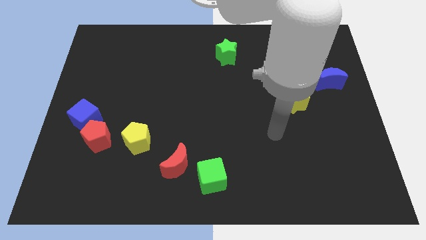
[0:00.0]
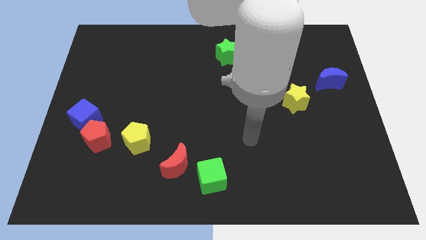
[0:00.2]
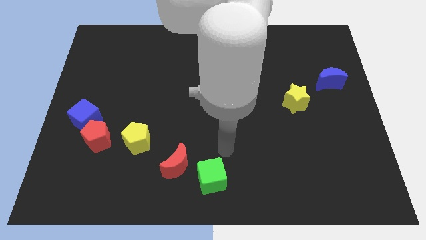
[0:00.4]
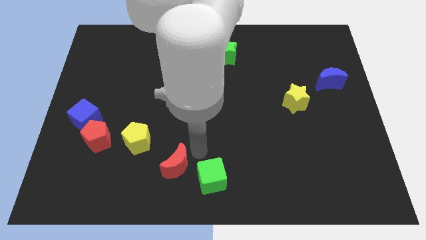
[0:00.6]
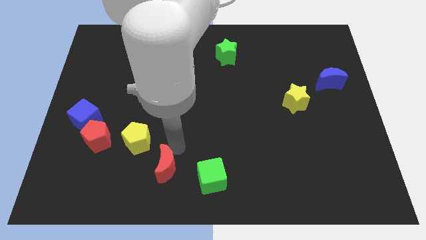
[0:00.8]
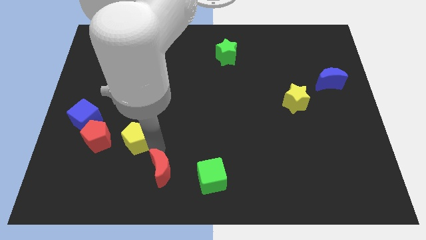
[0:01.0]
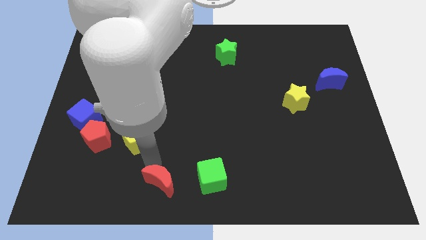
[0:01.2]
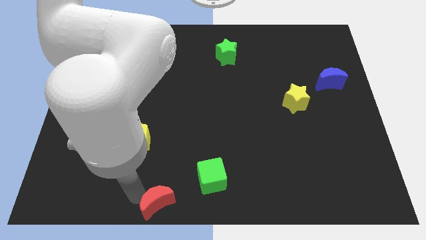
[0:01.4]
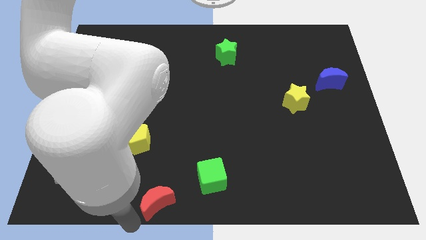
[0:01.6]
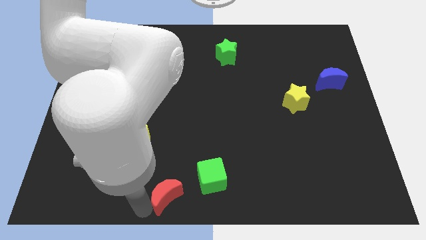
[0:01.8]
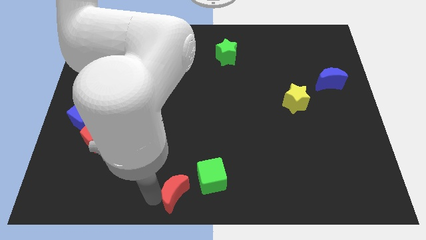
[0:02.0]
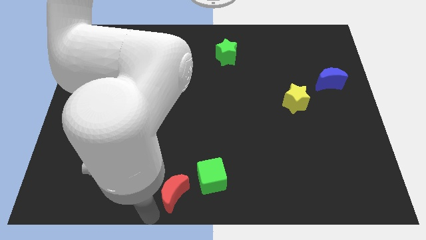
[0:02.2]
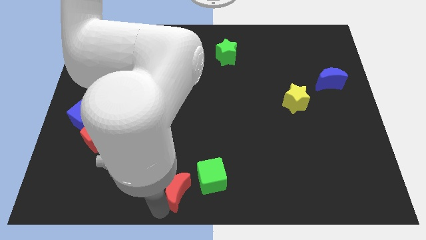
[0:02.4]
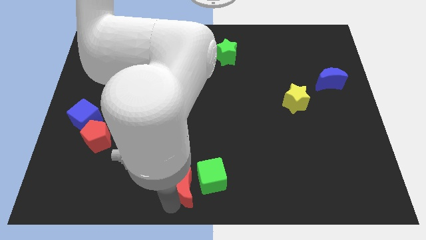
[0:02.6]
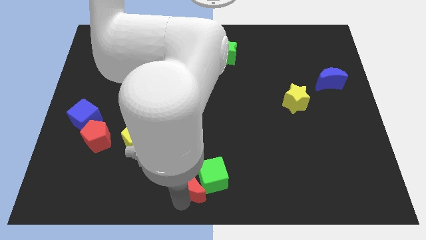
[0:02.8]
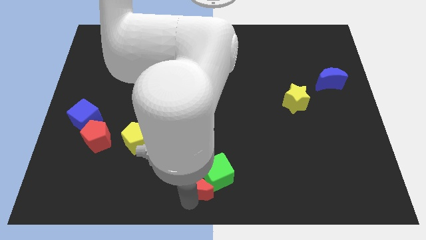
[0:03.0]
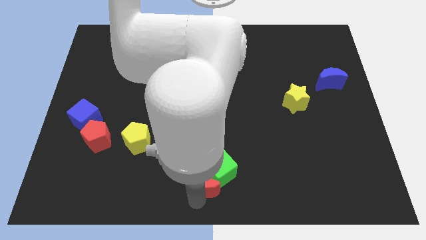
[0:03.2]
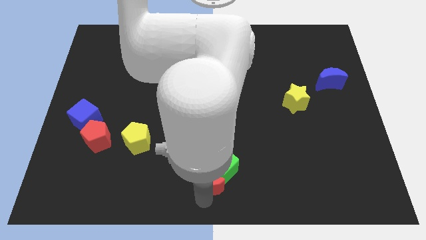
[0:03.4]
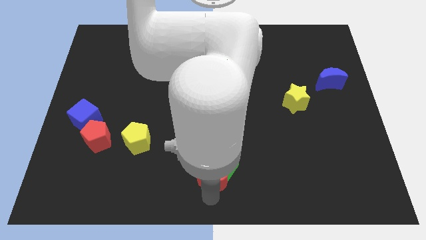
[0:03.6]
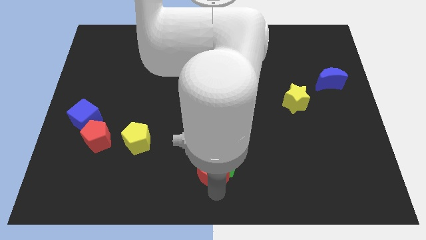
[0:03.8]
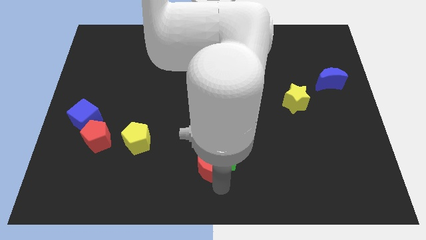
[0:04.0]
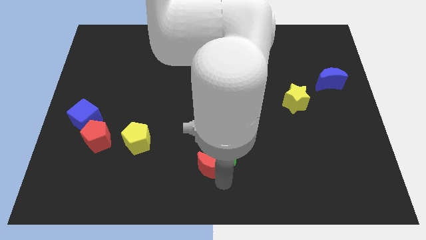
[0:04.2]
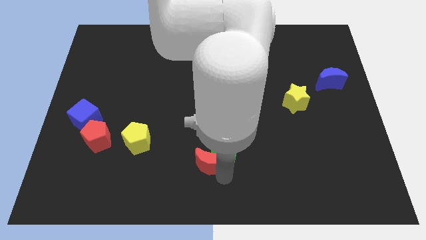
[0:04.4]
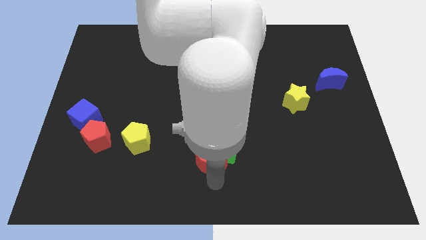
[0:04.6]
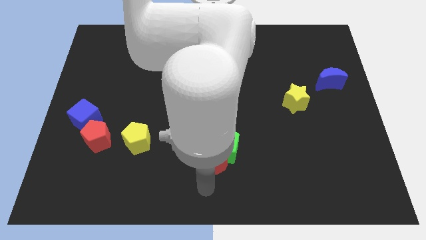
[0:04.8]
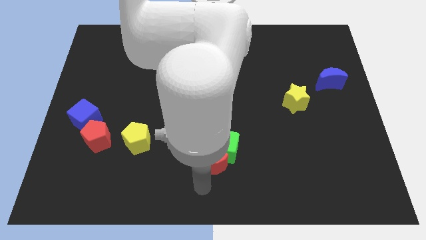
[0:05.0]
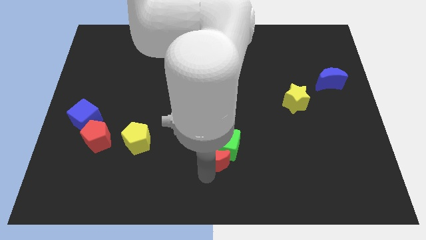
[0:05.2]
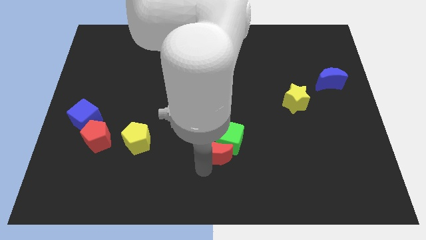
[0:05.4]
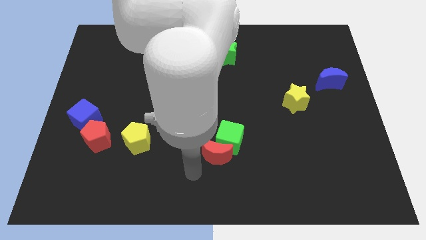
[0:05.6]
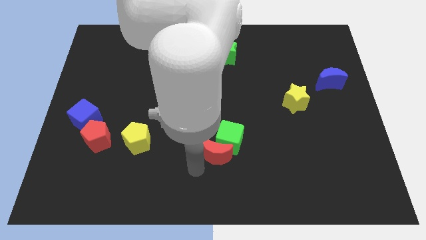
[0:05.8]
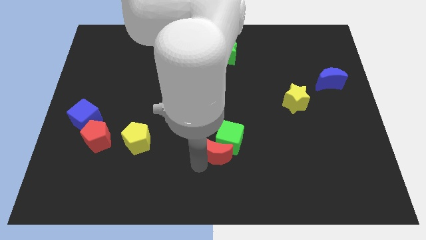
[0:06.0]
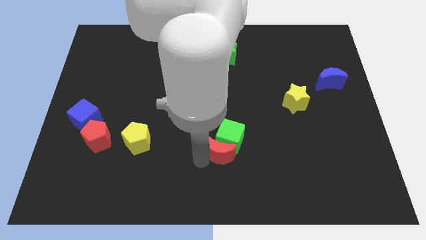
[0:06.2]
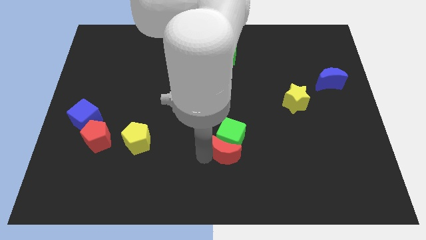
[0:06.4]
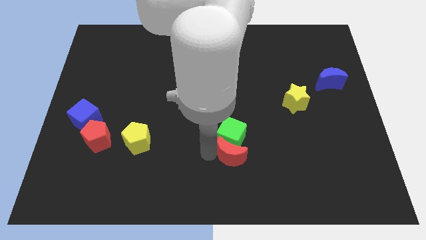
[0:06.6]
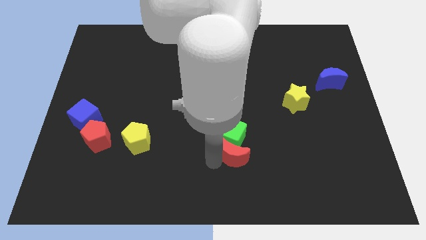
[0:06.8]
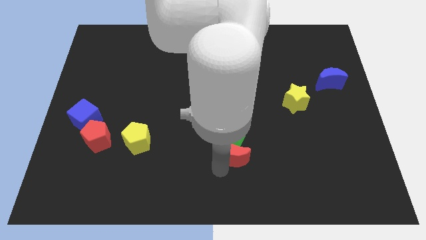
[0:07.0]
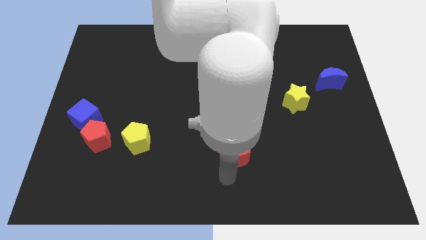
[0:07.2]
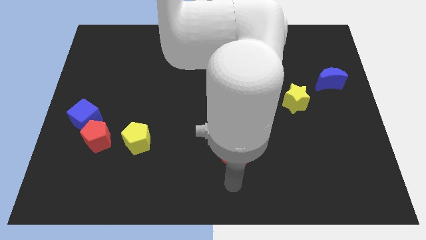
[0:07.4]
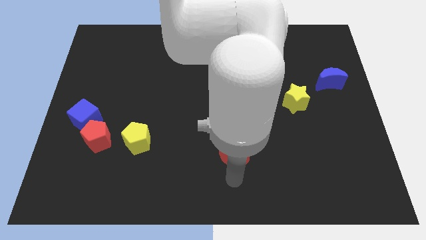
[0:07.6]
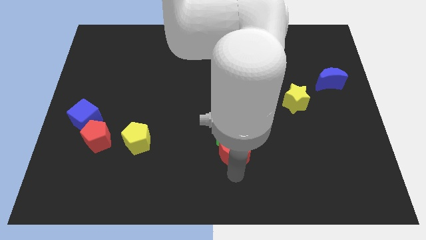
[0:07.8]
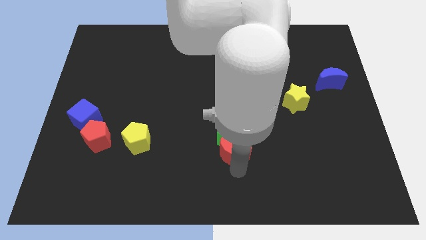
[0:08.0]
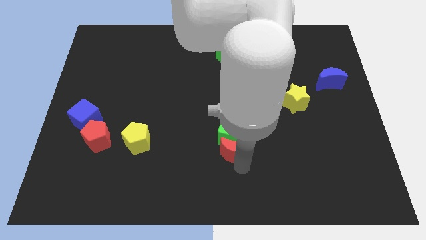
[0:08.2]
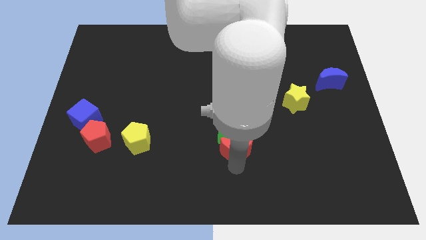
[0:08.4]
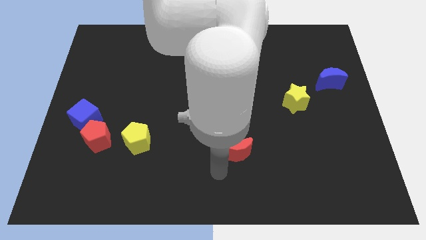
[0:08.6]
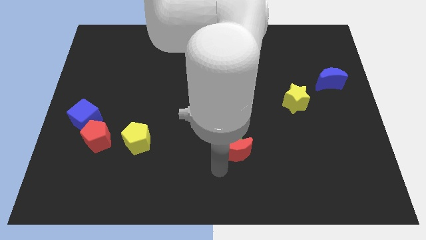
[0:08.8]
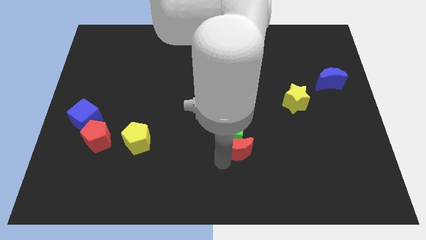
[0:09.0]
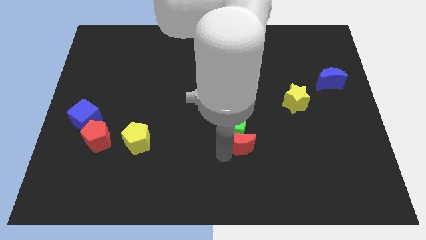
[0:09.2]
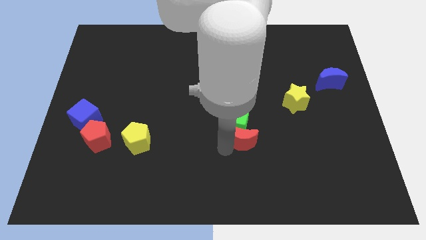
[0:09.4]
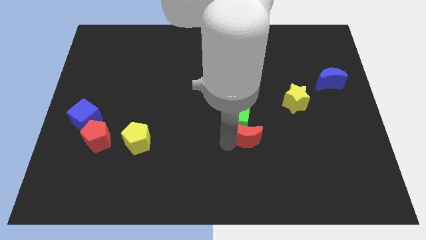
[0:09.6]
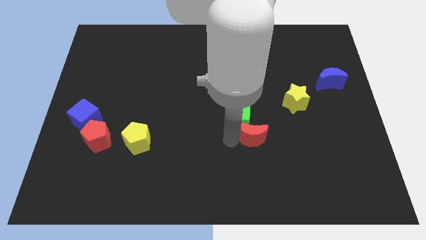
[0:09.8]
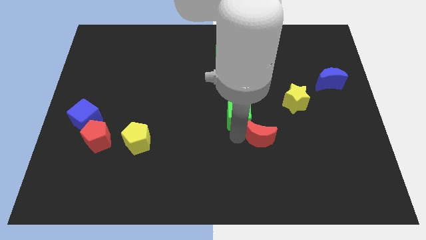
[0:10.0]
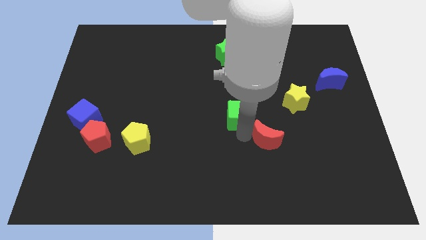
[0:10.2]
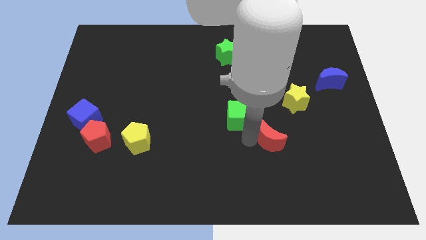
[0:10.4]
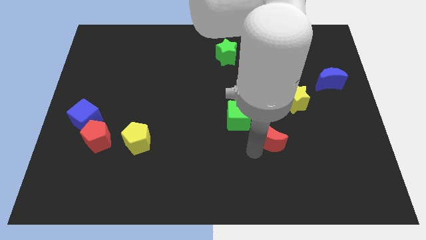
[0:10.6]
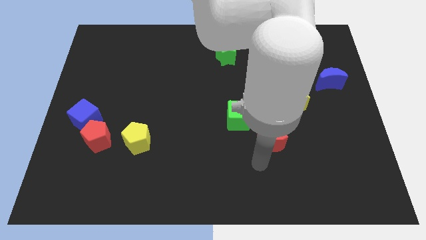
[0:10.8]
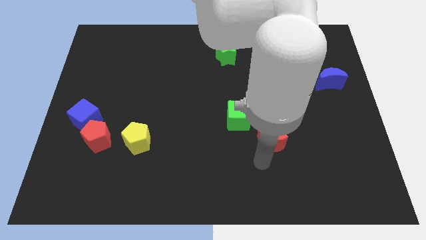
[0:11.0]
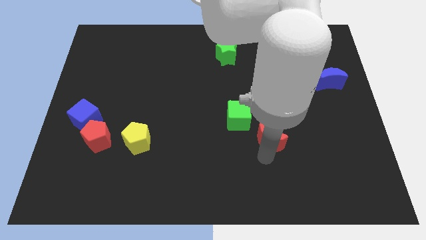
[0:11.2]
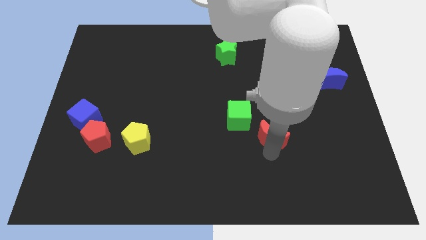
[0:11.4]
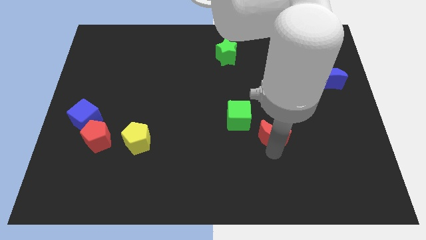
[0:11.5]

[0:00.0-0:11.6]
put the red moon to the bottom left of the yellow star

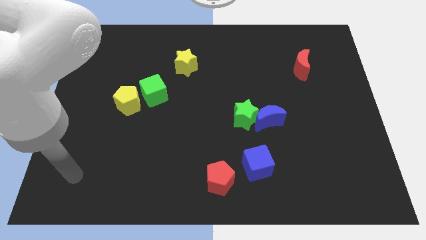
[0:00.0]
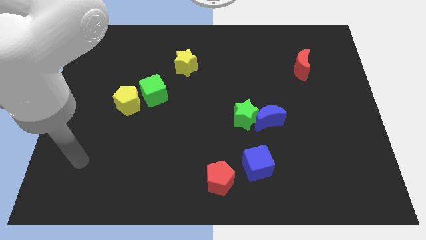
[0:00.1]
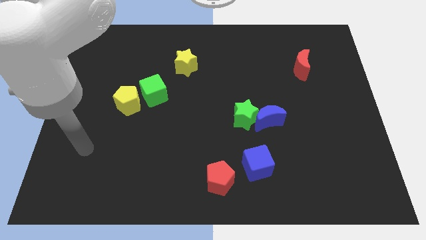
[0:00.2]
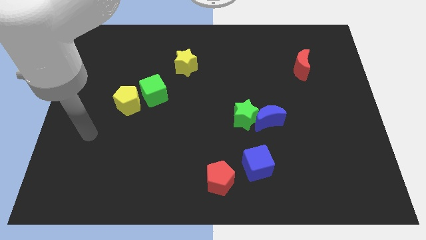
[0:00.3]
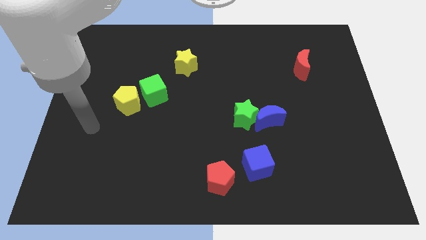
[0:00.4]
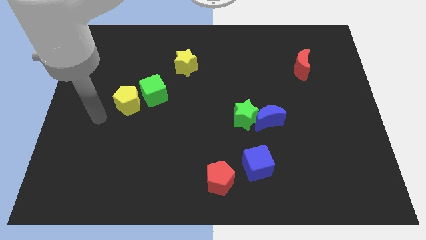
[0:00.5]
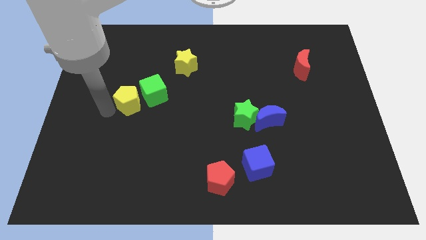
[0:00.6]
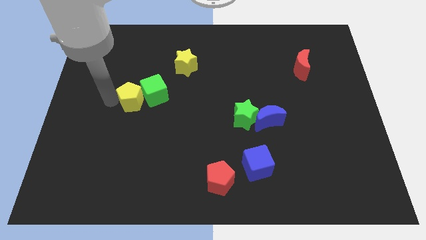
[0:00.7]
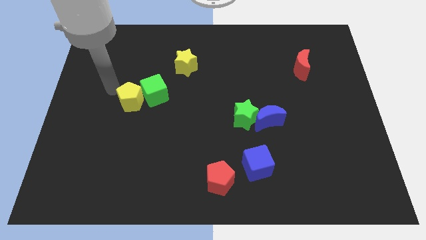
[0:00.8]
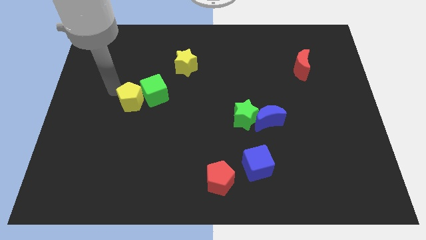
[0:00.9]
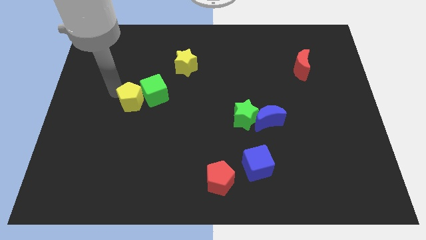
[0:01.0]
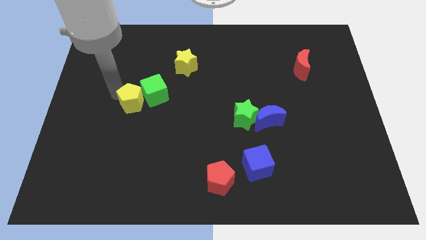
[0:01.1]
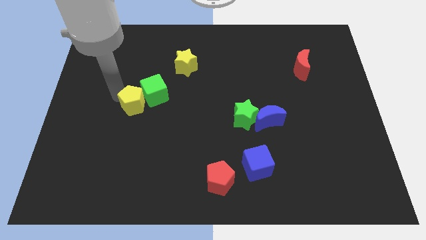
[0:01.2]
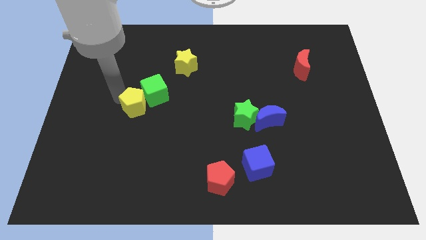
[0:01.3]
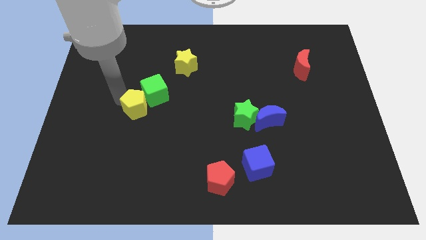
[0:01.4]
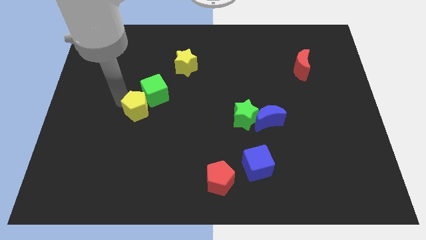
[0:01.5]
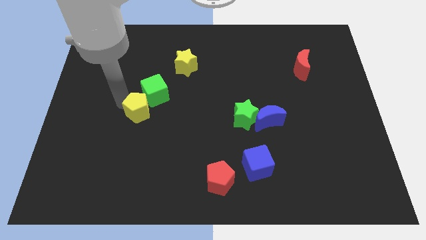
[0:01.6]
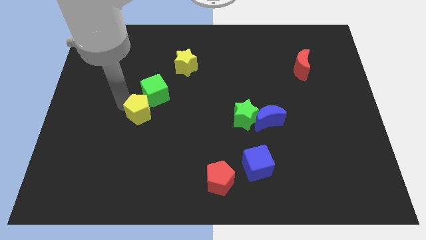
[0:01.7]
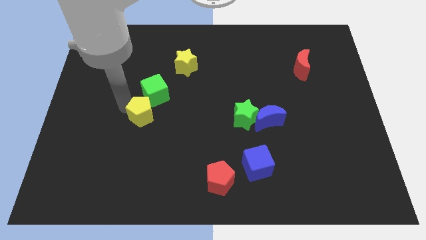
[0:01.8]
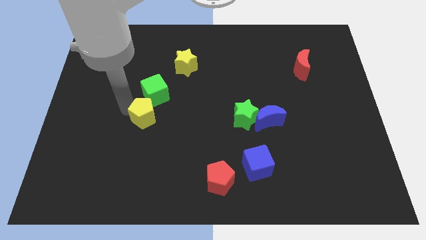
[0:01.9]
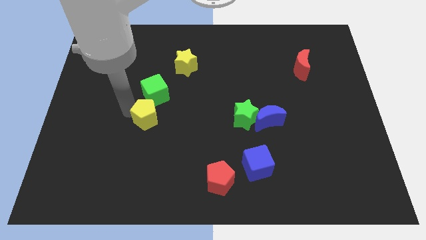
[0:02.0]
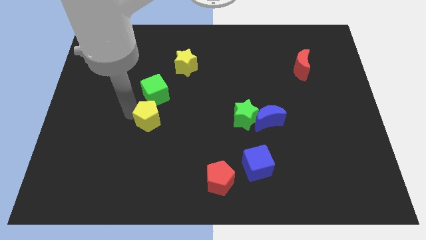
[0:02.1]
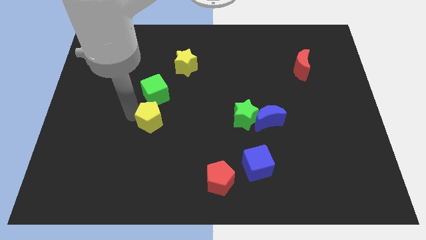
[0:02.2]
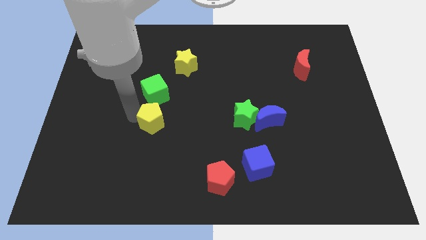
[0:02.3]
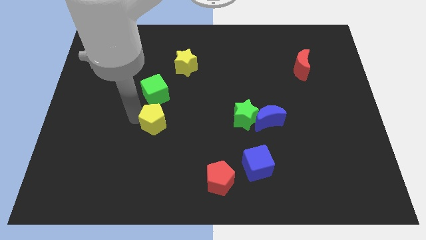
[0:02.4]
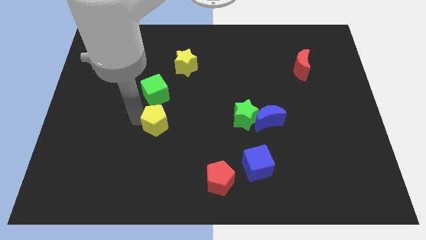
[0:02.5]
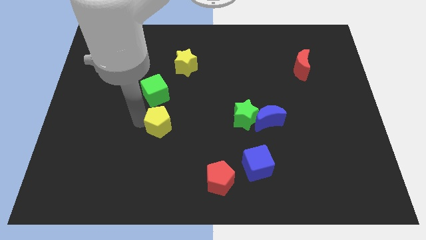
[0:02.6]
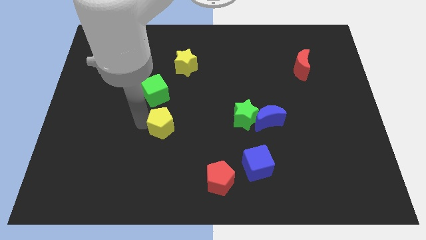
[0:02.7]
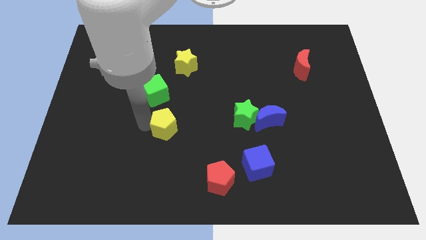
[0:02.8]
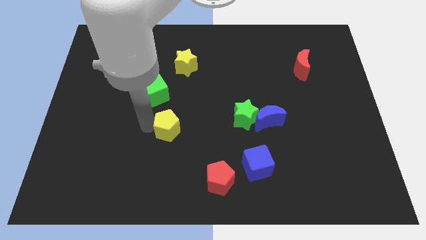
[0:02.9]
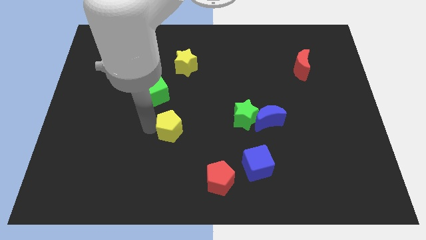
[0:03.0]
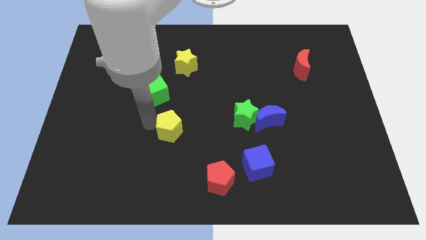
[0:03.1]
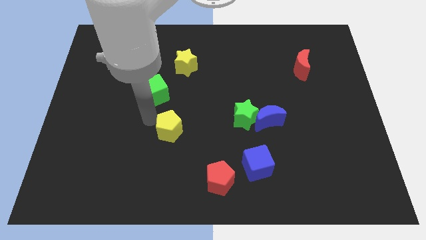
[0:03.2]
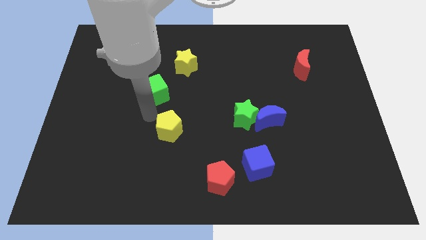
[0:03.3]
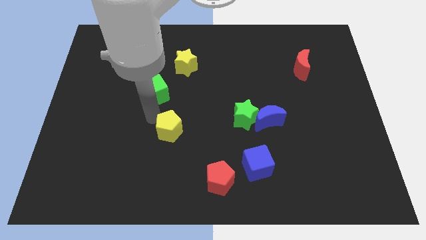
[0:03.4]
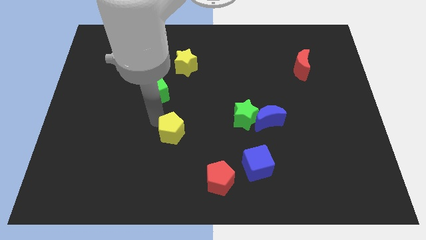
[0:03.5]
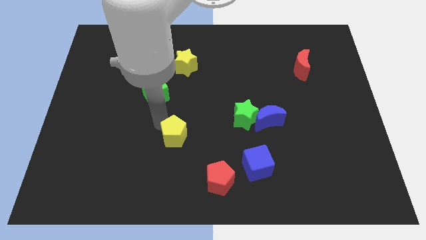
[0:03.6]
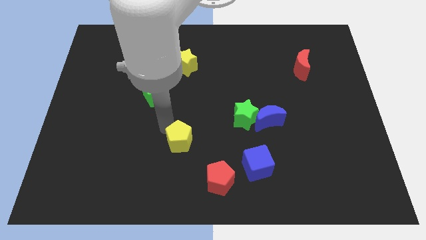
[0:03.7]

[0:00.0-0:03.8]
put the yellow pentagon to the top left side of the red pentagon
